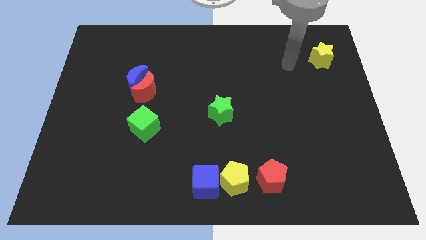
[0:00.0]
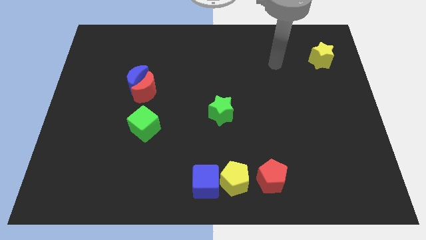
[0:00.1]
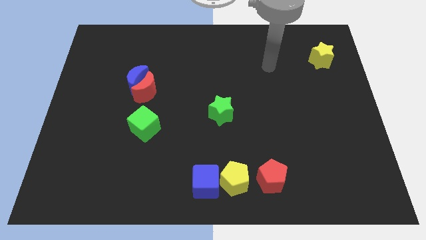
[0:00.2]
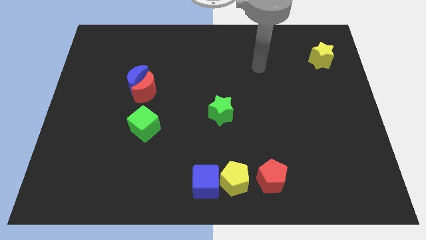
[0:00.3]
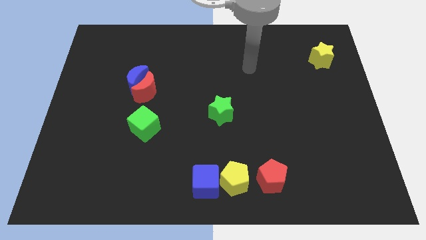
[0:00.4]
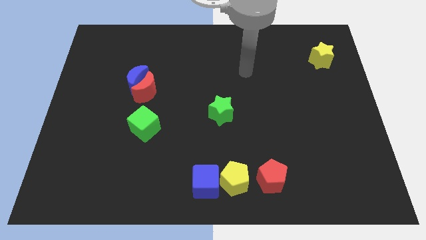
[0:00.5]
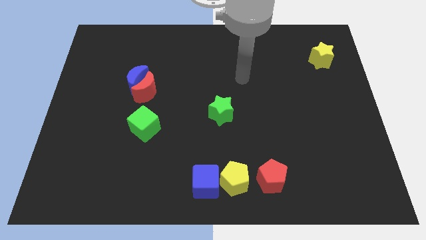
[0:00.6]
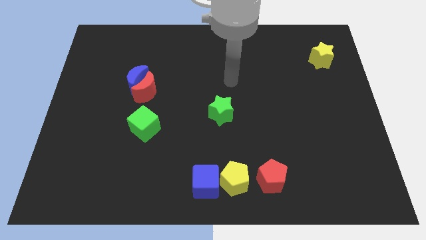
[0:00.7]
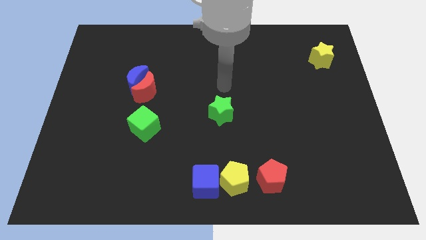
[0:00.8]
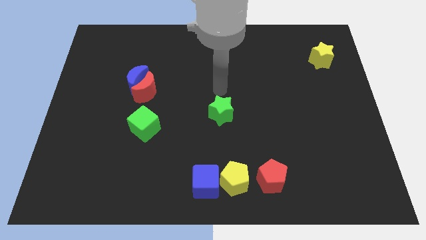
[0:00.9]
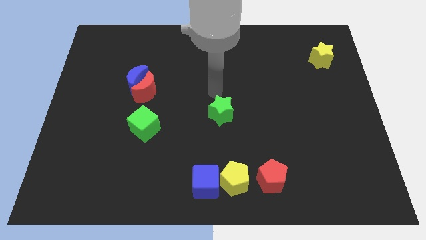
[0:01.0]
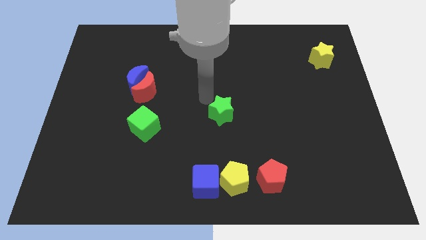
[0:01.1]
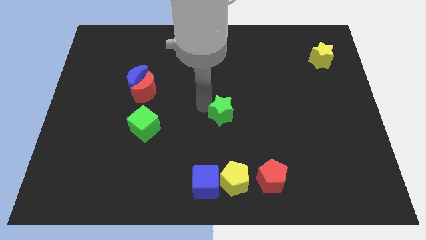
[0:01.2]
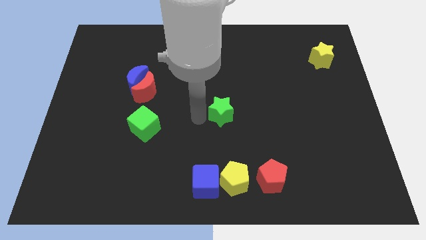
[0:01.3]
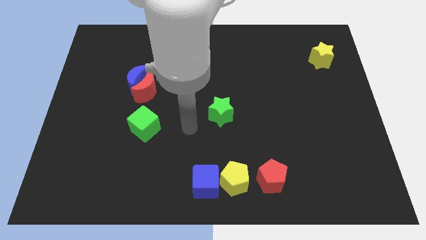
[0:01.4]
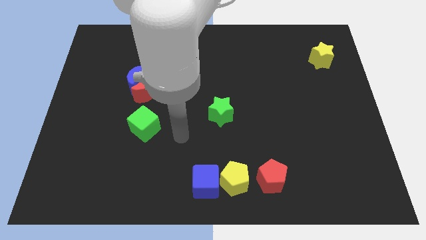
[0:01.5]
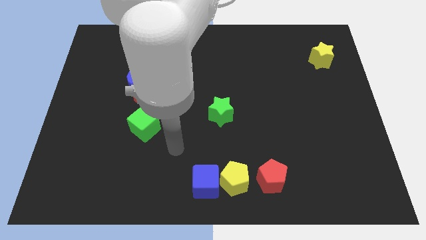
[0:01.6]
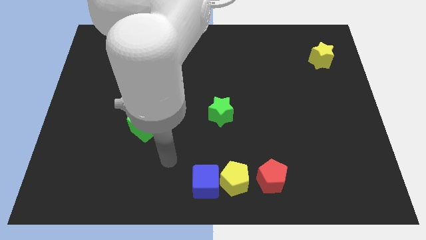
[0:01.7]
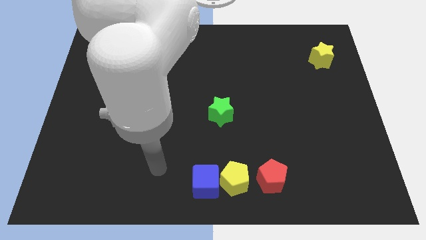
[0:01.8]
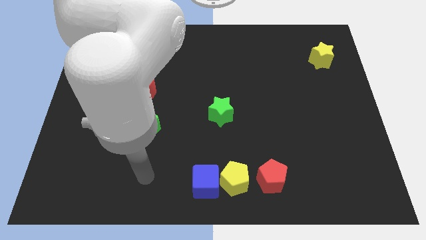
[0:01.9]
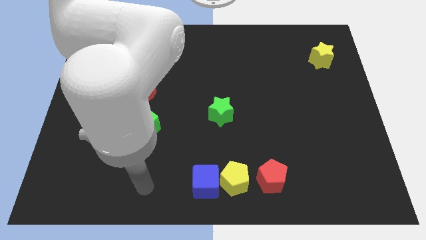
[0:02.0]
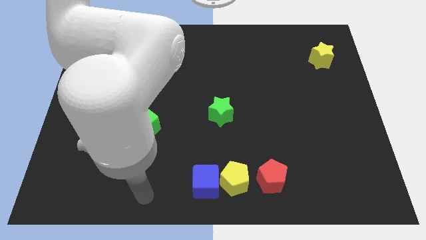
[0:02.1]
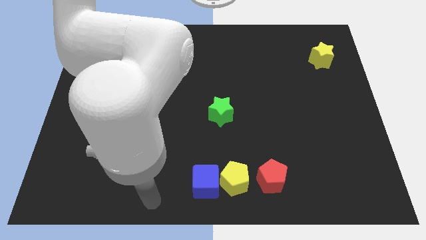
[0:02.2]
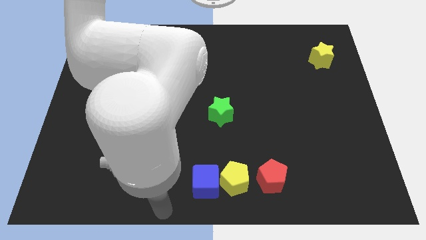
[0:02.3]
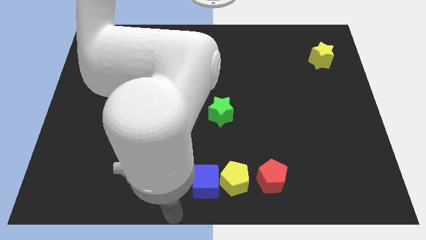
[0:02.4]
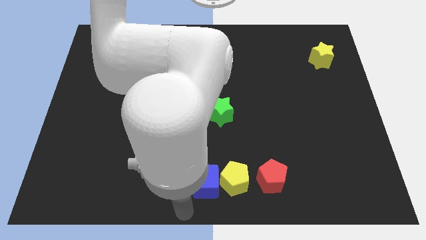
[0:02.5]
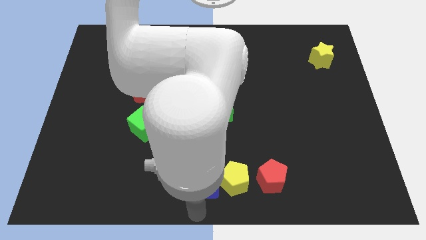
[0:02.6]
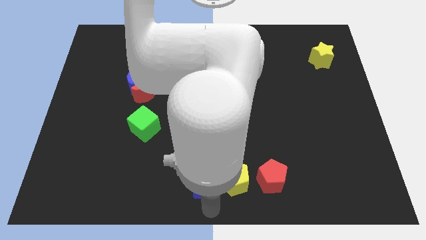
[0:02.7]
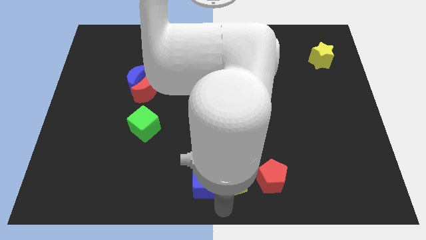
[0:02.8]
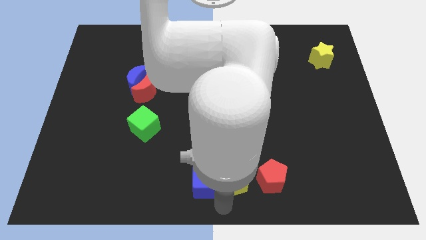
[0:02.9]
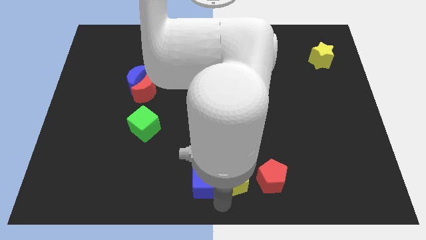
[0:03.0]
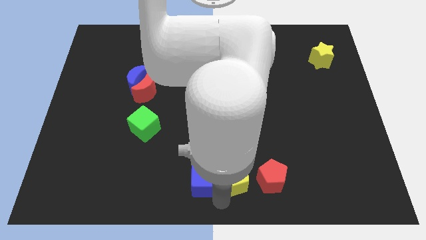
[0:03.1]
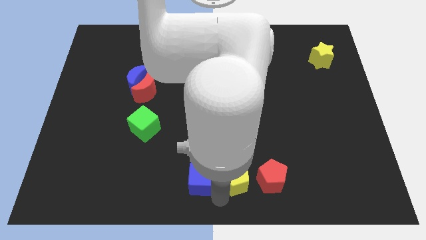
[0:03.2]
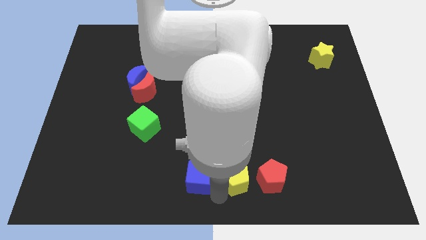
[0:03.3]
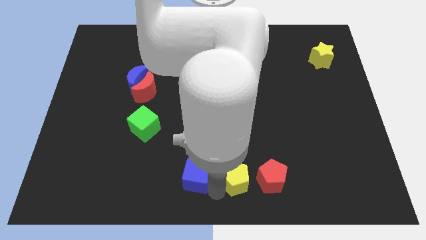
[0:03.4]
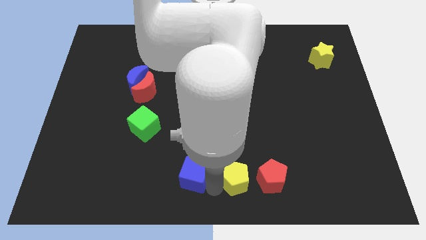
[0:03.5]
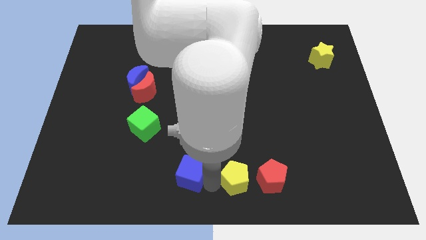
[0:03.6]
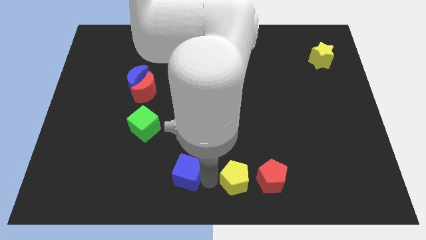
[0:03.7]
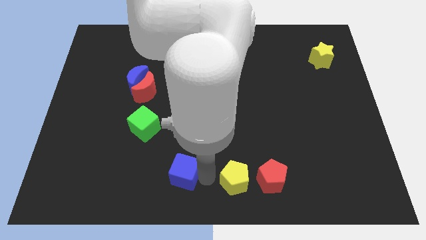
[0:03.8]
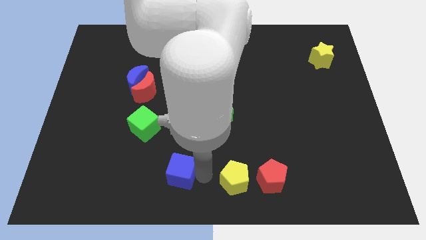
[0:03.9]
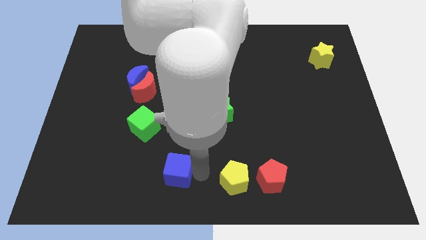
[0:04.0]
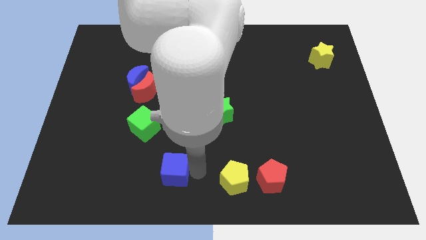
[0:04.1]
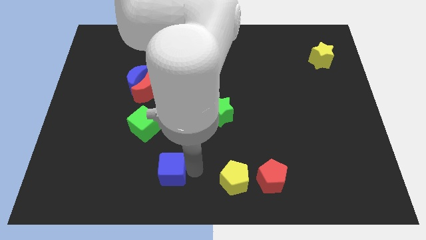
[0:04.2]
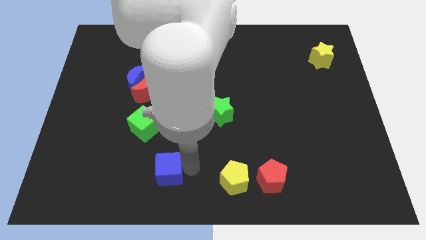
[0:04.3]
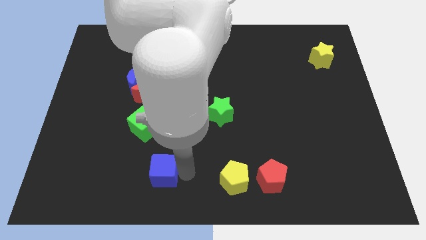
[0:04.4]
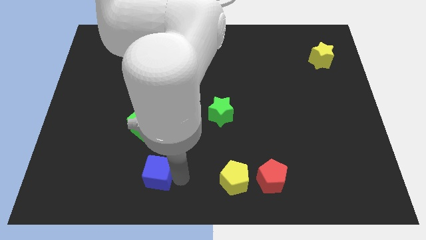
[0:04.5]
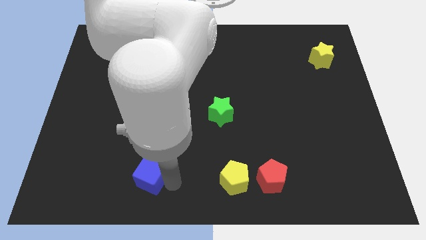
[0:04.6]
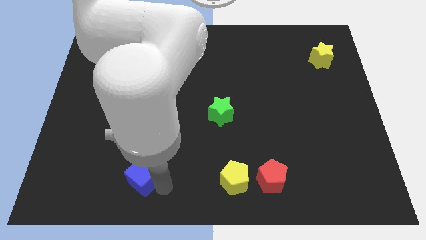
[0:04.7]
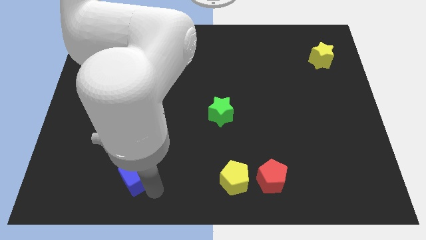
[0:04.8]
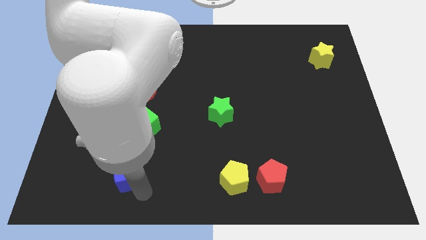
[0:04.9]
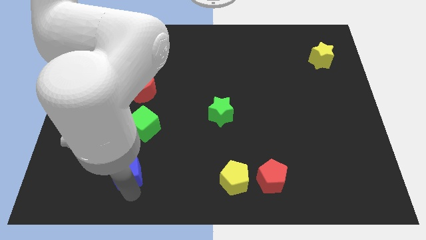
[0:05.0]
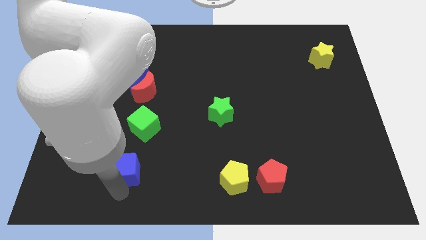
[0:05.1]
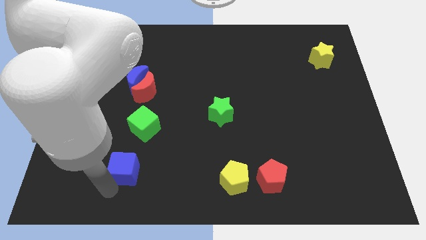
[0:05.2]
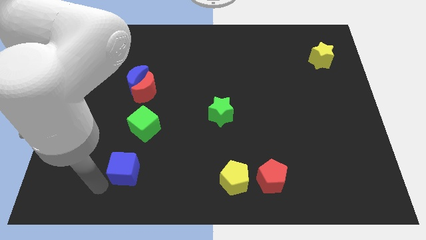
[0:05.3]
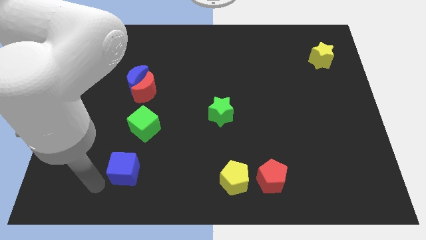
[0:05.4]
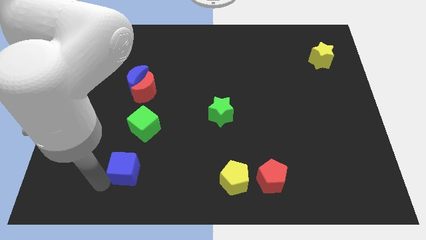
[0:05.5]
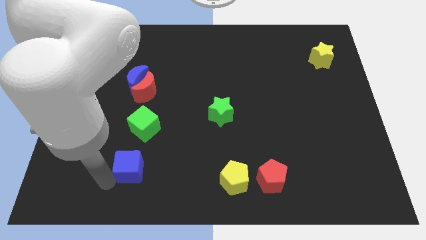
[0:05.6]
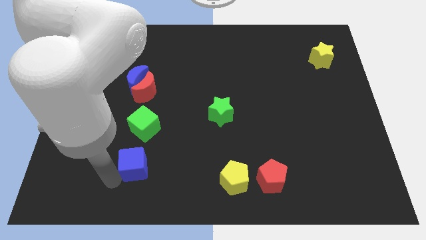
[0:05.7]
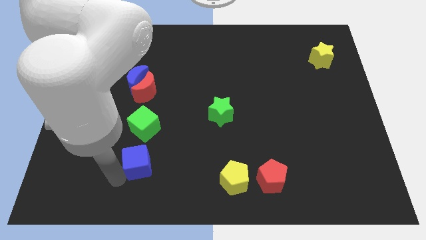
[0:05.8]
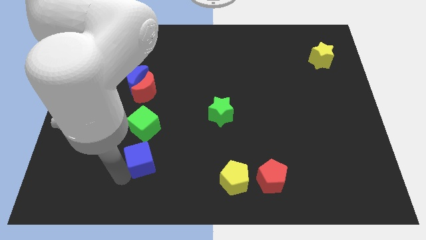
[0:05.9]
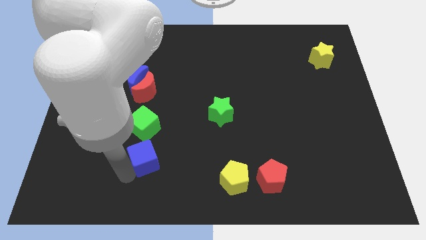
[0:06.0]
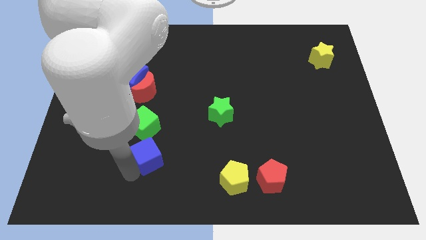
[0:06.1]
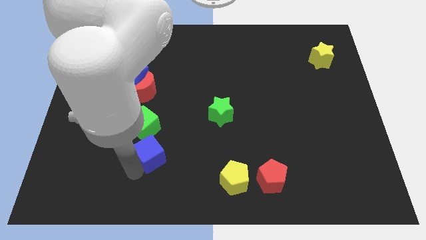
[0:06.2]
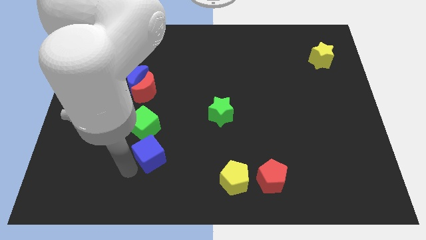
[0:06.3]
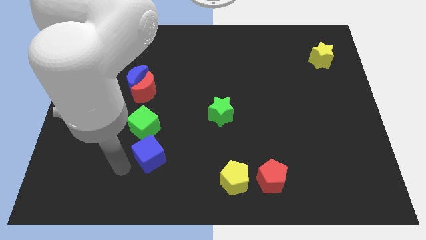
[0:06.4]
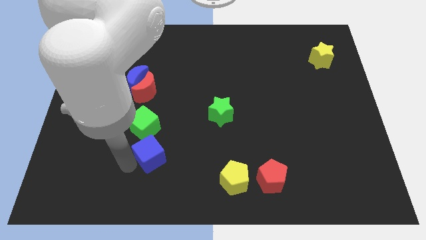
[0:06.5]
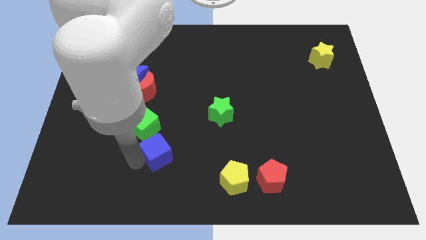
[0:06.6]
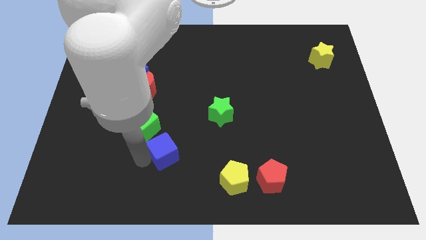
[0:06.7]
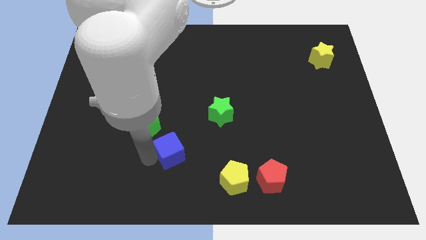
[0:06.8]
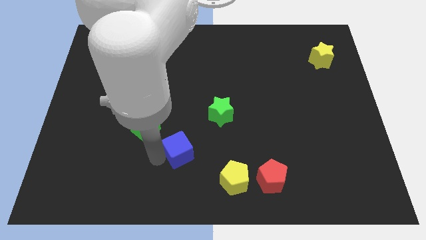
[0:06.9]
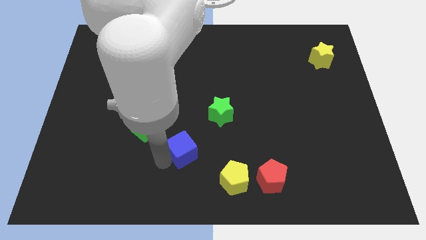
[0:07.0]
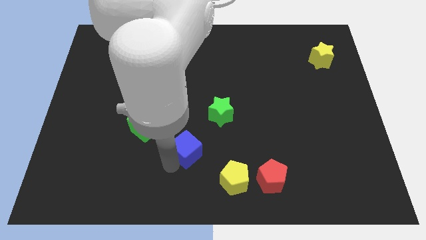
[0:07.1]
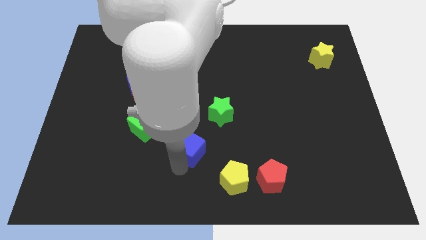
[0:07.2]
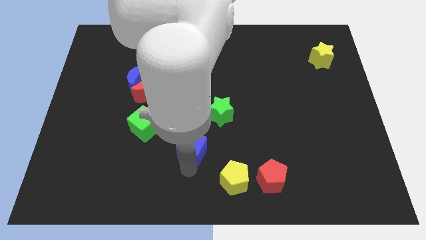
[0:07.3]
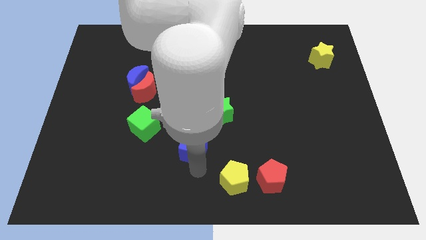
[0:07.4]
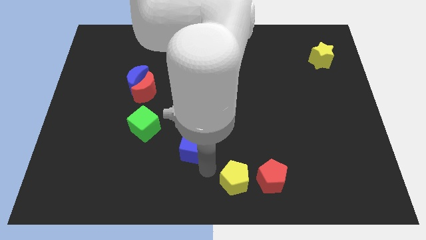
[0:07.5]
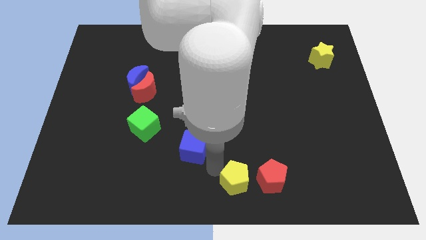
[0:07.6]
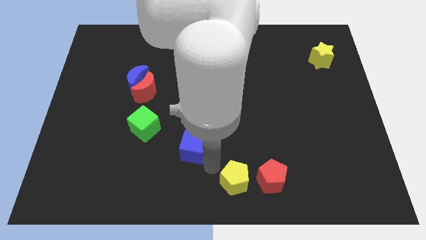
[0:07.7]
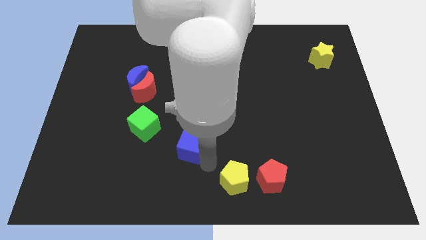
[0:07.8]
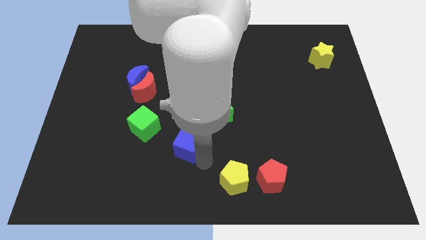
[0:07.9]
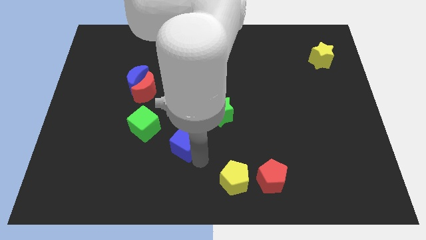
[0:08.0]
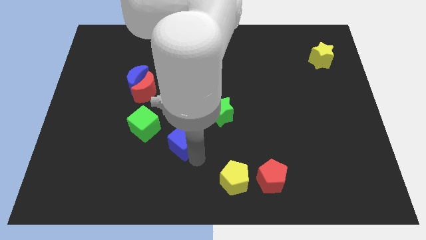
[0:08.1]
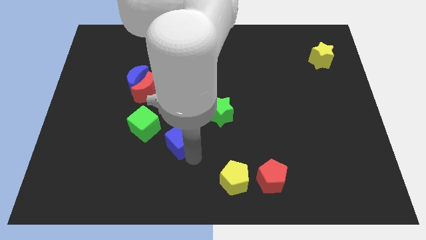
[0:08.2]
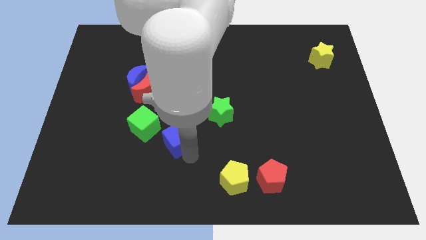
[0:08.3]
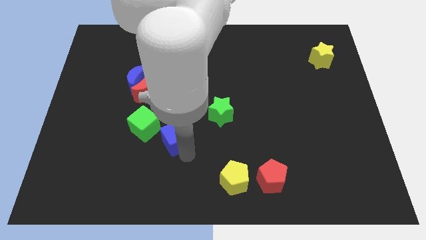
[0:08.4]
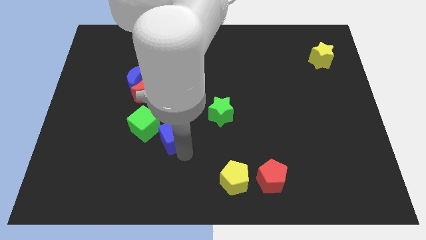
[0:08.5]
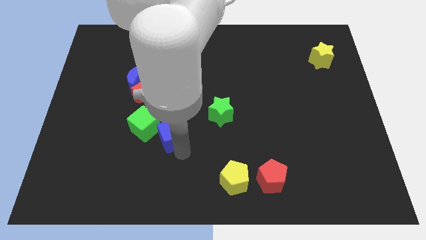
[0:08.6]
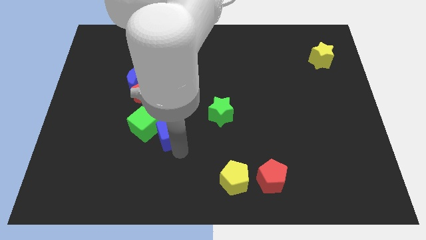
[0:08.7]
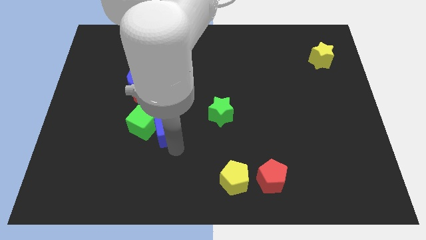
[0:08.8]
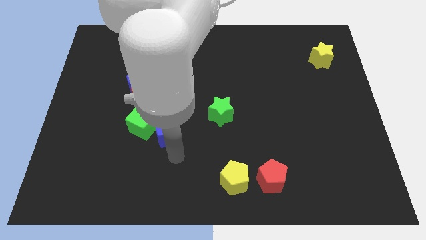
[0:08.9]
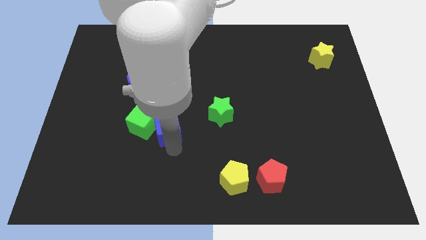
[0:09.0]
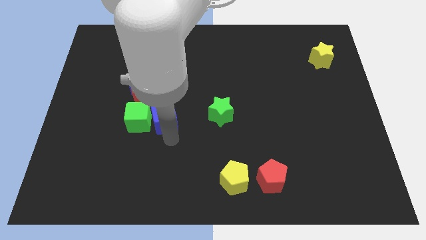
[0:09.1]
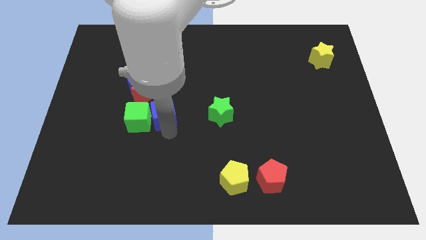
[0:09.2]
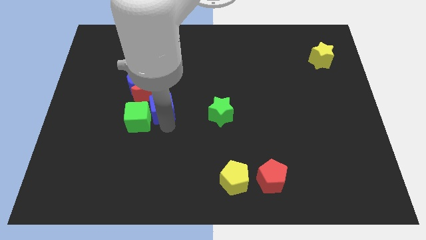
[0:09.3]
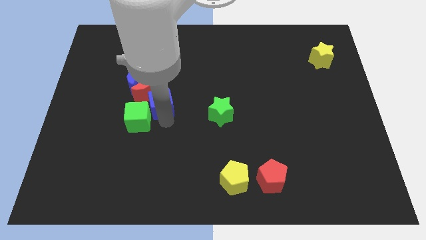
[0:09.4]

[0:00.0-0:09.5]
put the blue cube next to the red moon
